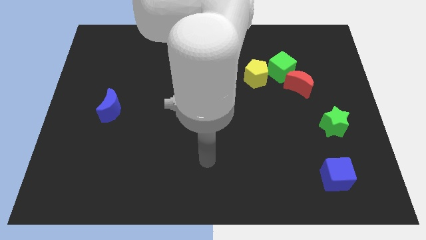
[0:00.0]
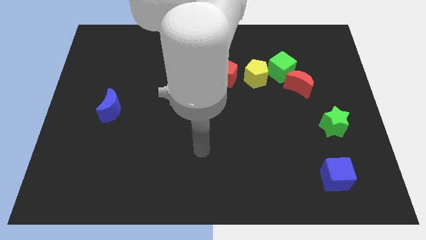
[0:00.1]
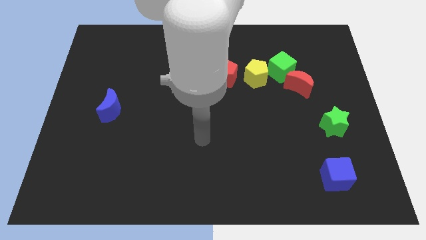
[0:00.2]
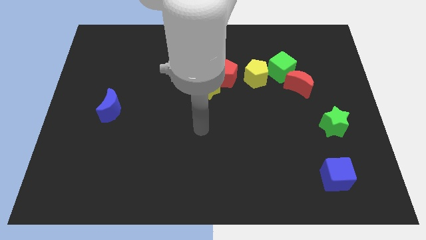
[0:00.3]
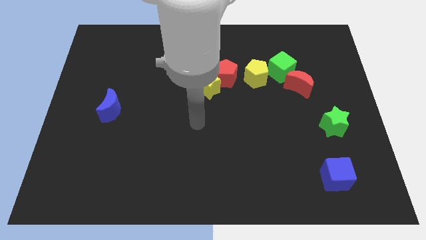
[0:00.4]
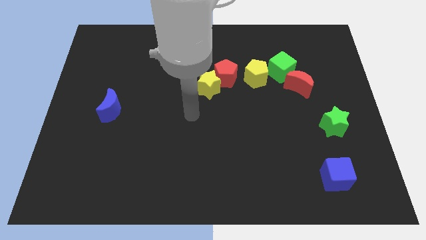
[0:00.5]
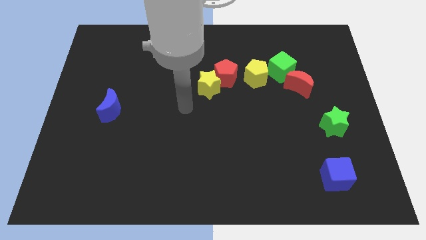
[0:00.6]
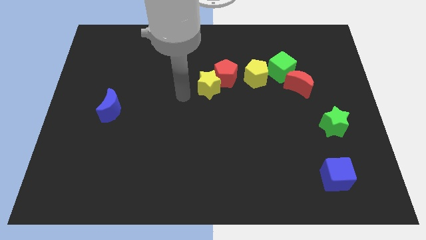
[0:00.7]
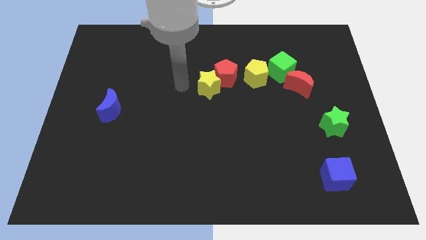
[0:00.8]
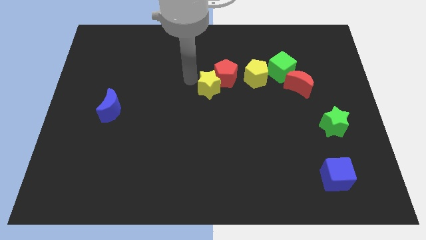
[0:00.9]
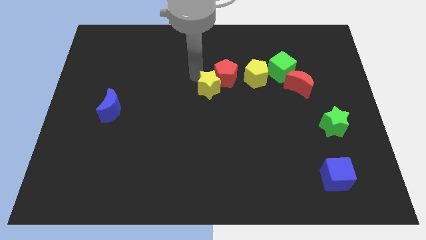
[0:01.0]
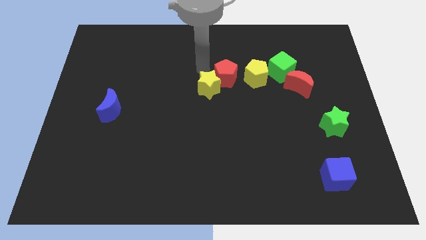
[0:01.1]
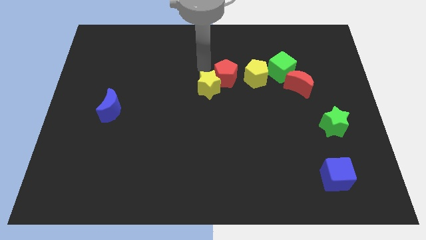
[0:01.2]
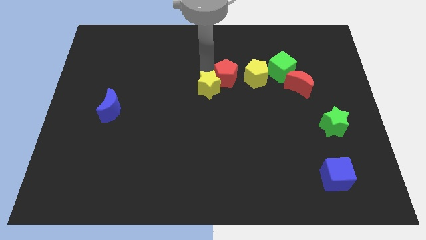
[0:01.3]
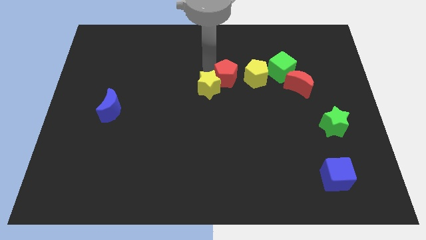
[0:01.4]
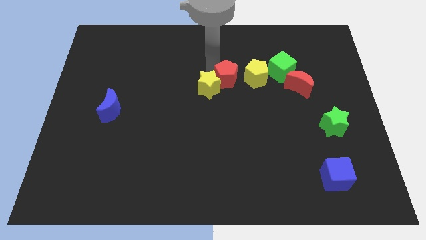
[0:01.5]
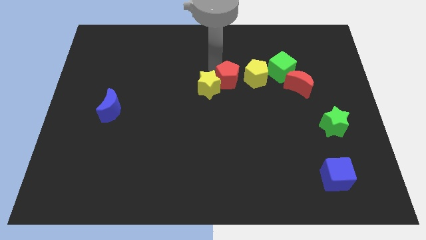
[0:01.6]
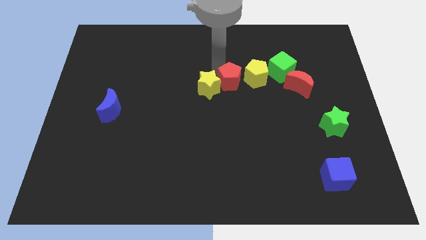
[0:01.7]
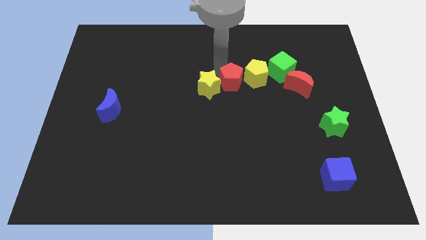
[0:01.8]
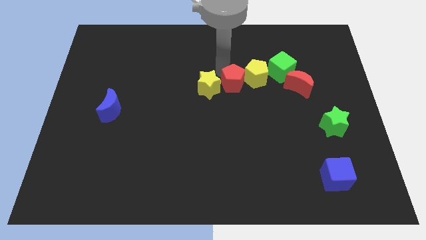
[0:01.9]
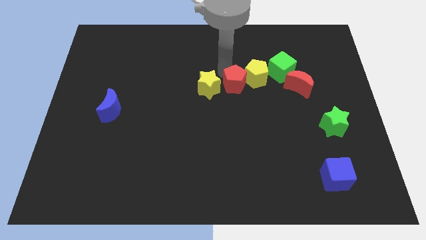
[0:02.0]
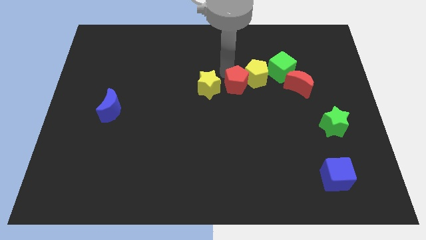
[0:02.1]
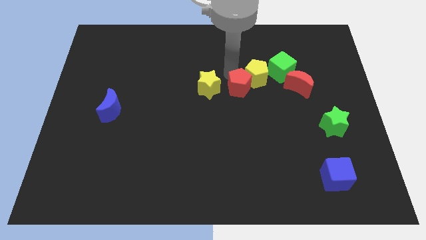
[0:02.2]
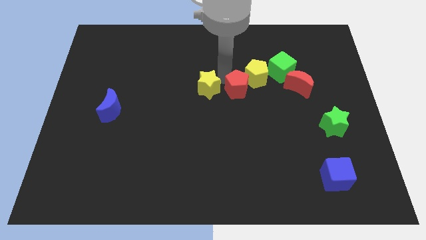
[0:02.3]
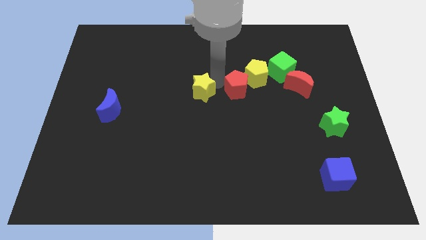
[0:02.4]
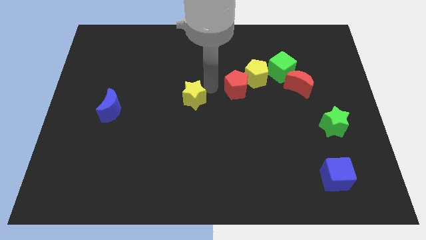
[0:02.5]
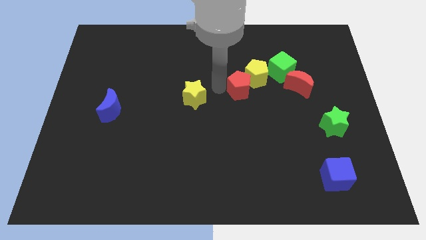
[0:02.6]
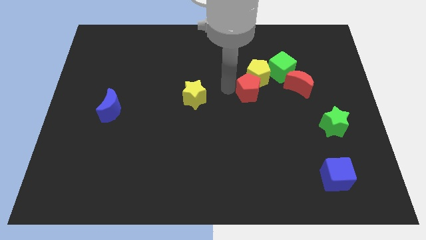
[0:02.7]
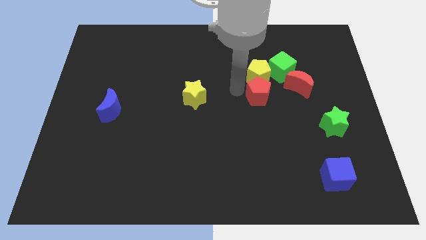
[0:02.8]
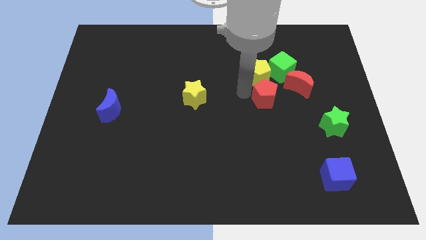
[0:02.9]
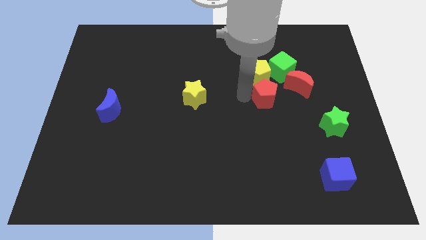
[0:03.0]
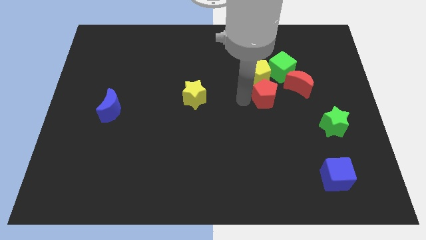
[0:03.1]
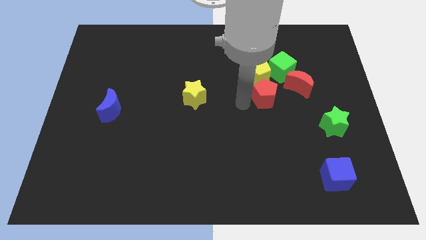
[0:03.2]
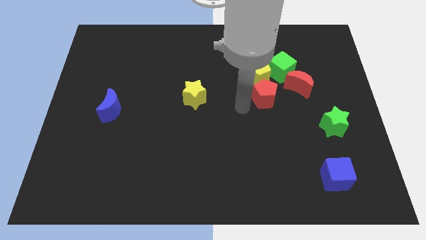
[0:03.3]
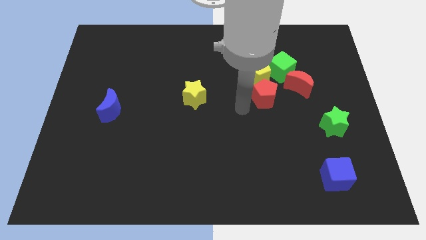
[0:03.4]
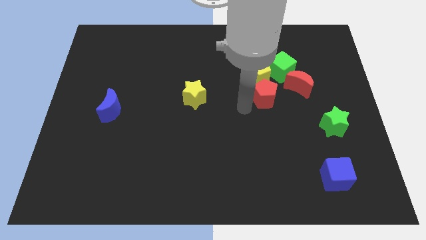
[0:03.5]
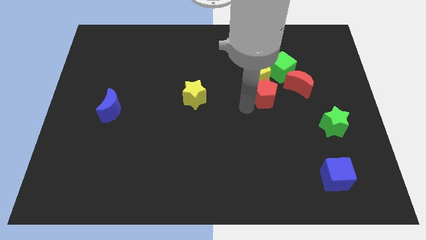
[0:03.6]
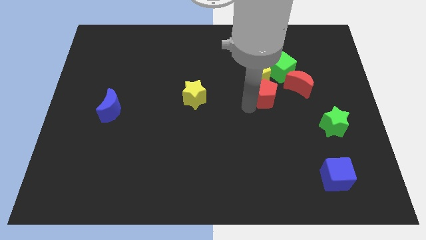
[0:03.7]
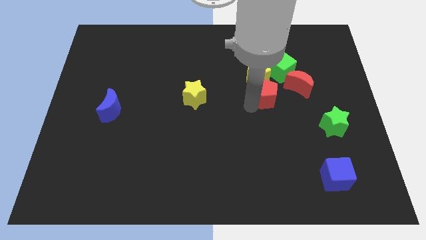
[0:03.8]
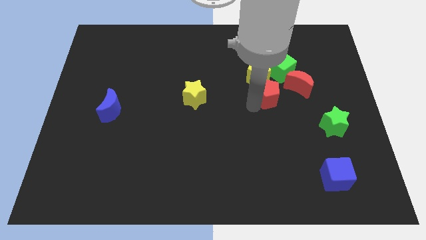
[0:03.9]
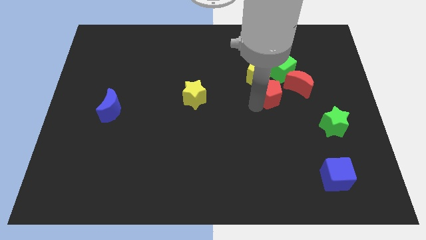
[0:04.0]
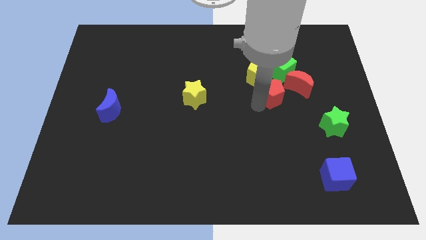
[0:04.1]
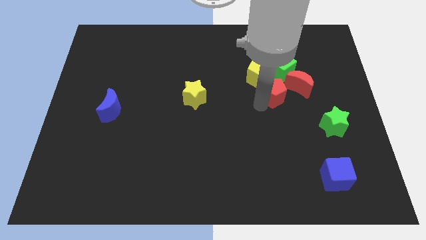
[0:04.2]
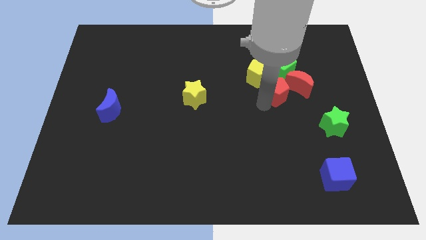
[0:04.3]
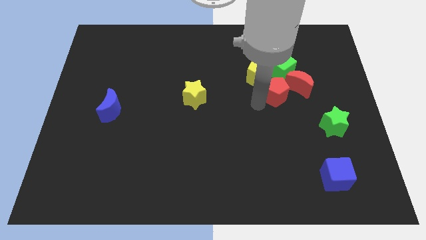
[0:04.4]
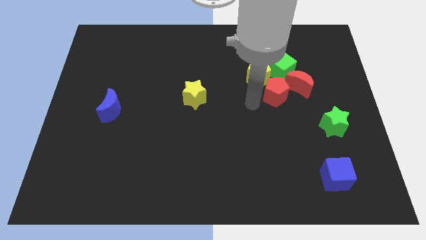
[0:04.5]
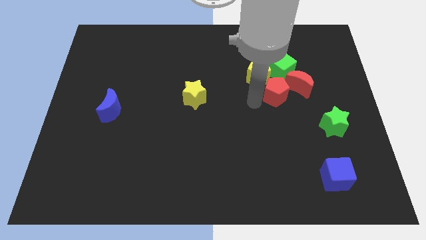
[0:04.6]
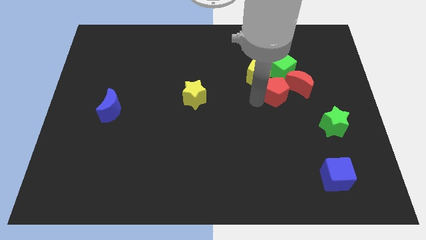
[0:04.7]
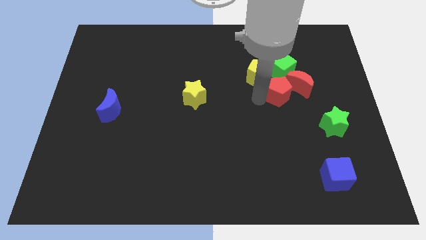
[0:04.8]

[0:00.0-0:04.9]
push the red pentagon towards the red moon

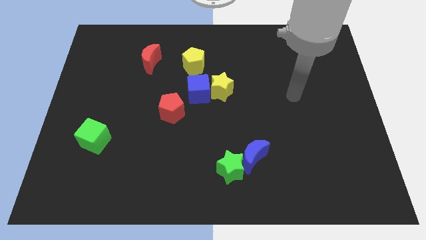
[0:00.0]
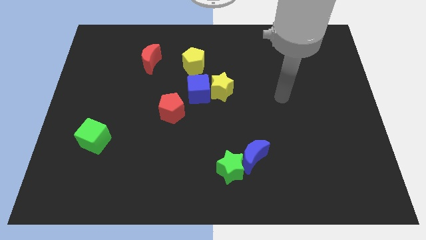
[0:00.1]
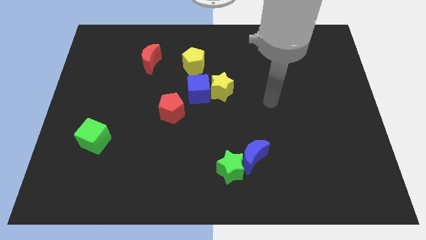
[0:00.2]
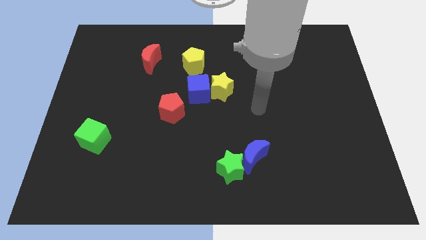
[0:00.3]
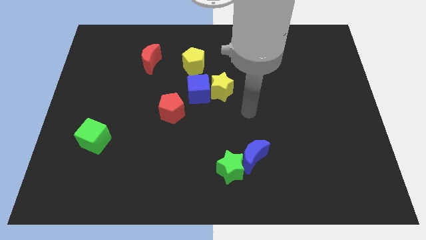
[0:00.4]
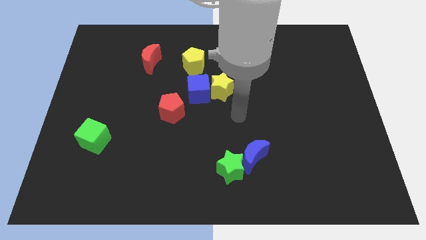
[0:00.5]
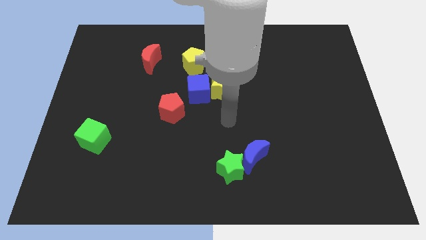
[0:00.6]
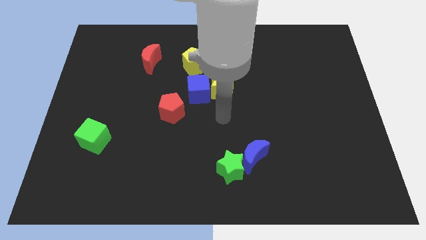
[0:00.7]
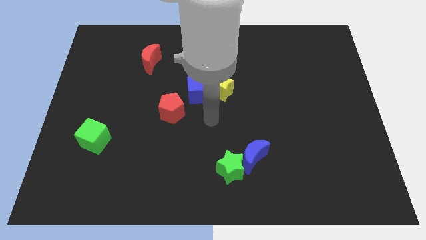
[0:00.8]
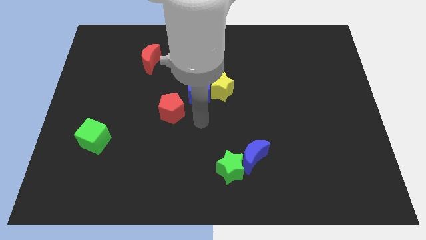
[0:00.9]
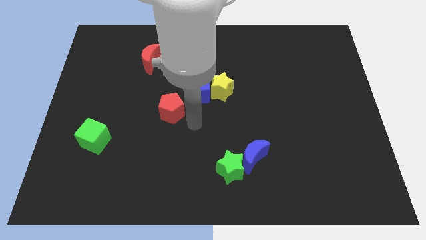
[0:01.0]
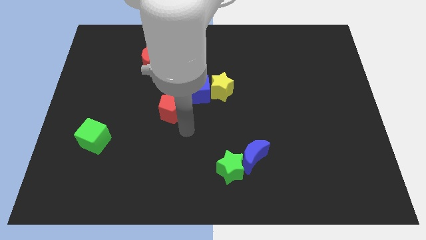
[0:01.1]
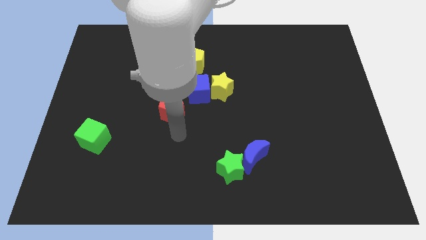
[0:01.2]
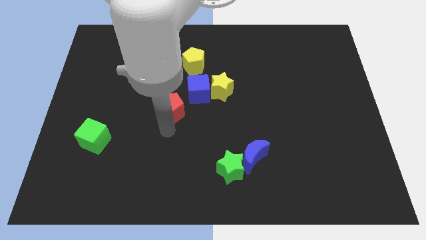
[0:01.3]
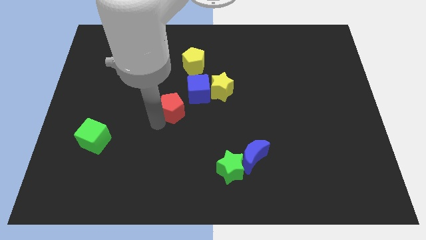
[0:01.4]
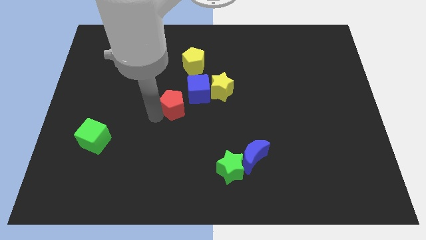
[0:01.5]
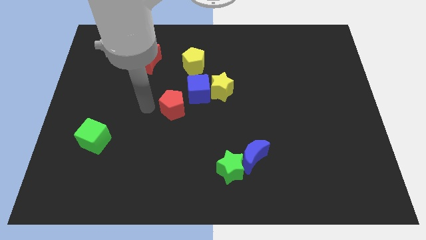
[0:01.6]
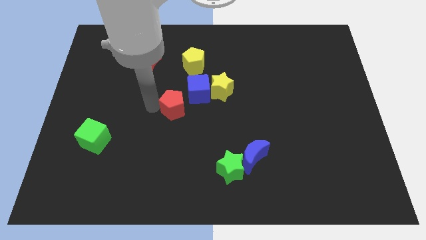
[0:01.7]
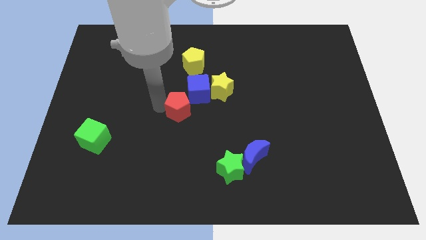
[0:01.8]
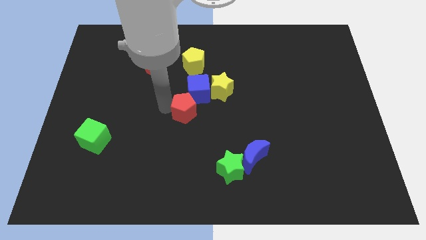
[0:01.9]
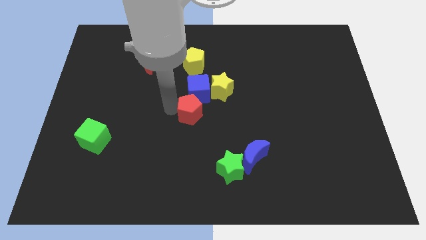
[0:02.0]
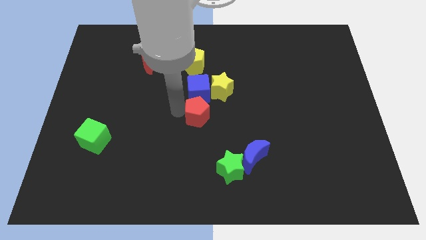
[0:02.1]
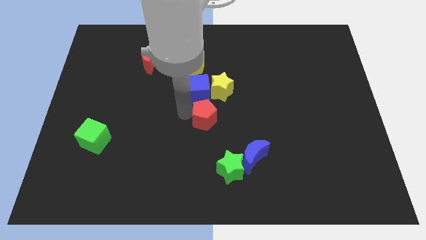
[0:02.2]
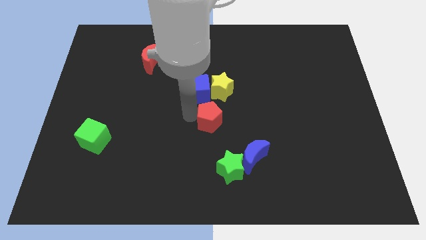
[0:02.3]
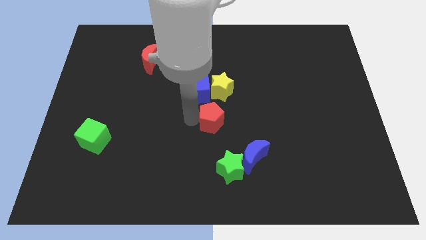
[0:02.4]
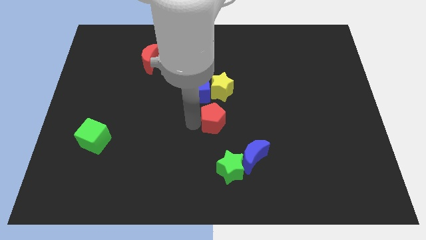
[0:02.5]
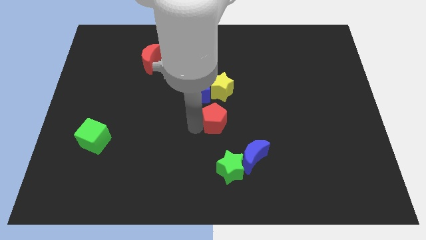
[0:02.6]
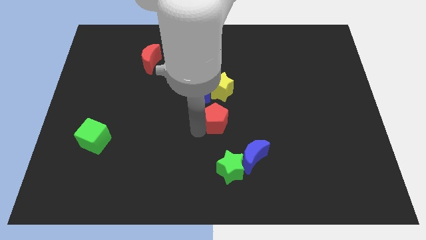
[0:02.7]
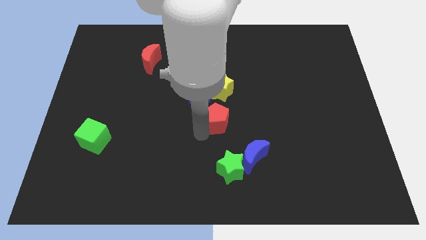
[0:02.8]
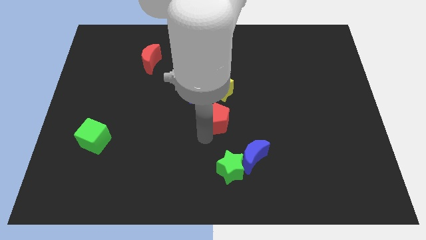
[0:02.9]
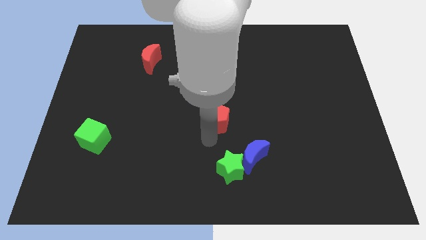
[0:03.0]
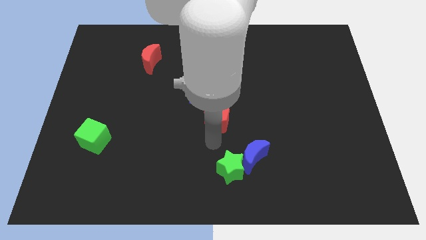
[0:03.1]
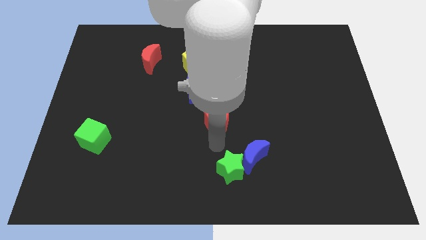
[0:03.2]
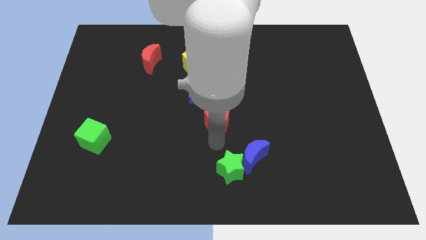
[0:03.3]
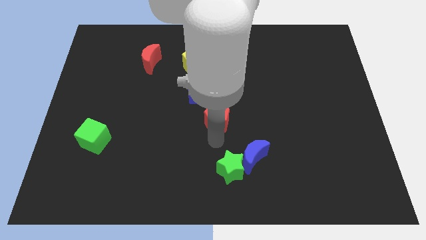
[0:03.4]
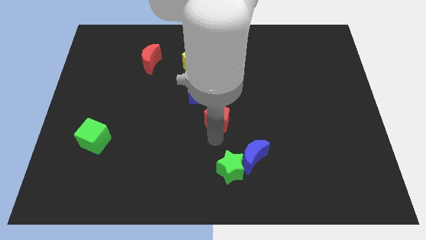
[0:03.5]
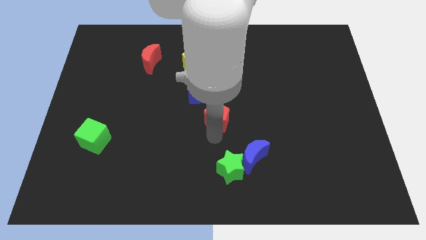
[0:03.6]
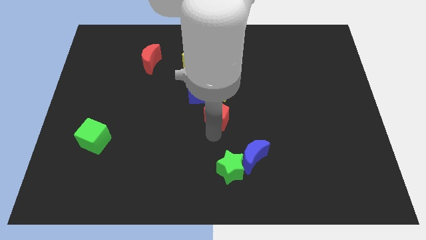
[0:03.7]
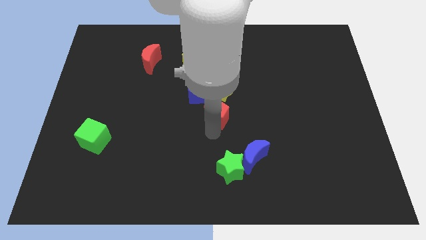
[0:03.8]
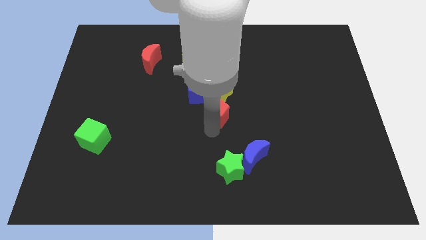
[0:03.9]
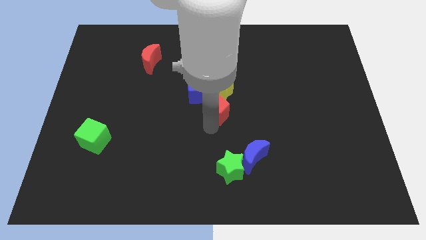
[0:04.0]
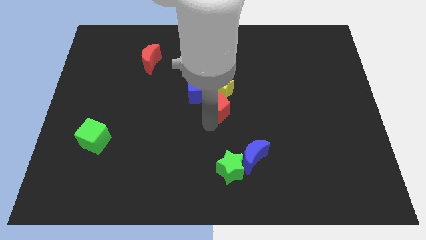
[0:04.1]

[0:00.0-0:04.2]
put the red pentagon to the yellow star
